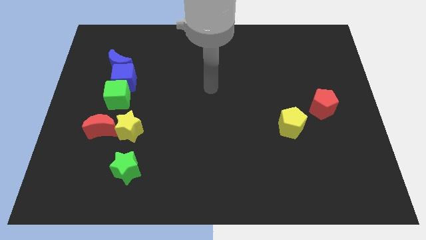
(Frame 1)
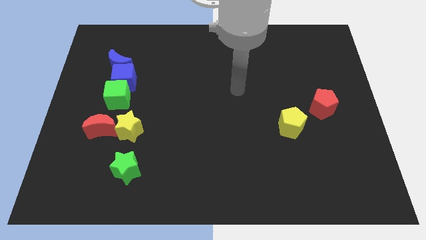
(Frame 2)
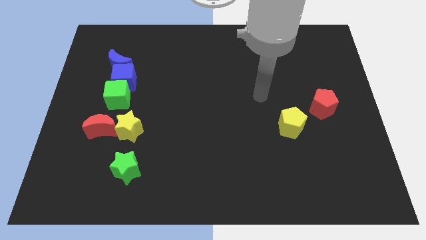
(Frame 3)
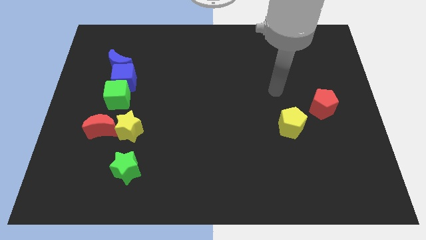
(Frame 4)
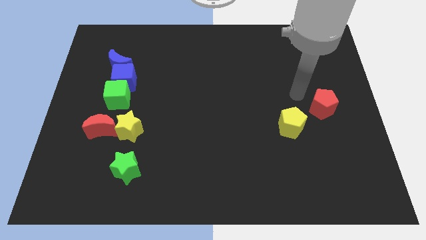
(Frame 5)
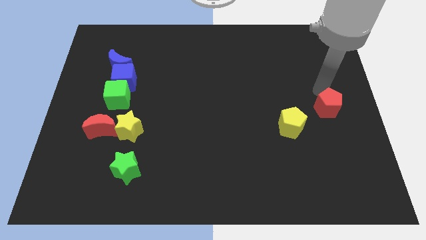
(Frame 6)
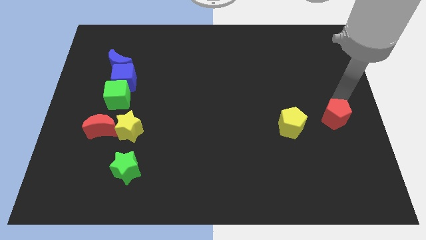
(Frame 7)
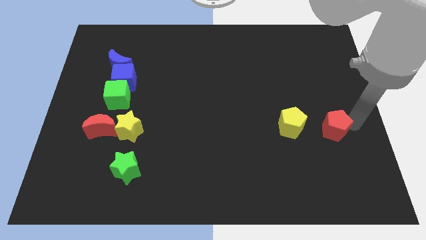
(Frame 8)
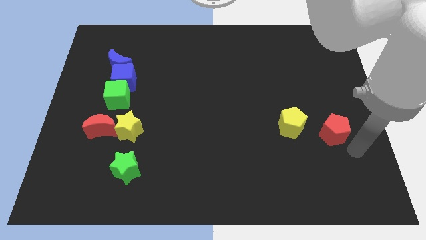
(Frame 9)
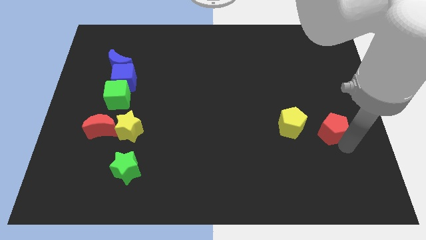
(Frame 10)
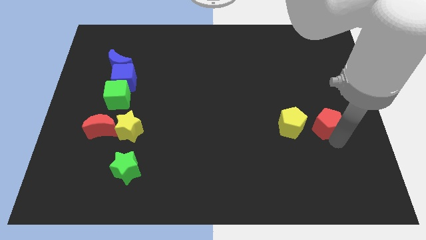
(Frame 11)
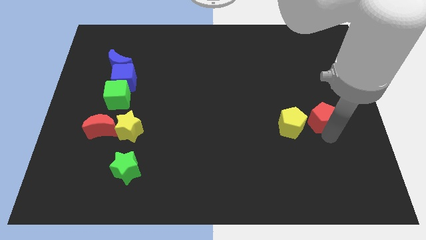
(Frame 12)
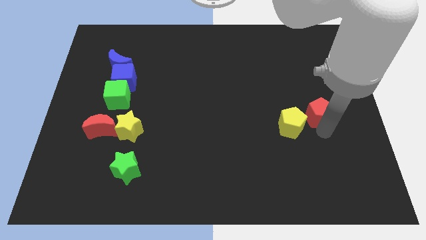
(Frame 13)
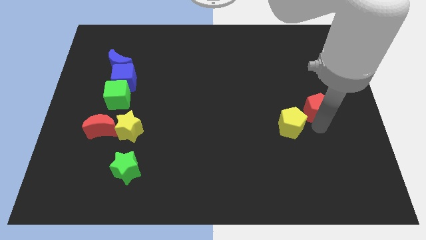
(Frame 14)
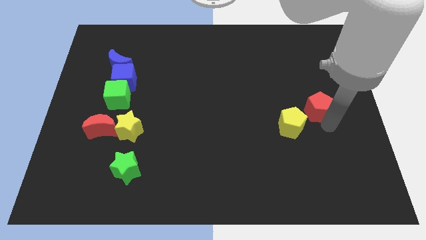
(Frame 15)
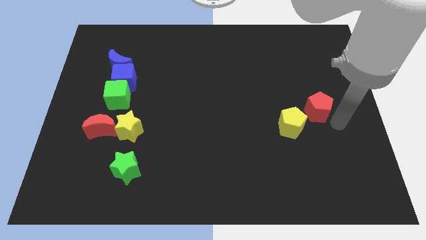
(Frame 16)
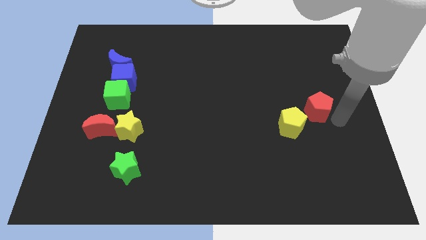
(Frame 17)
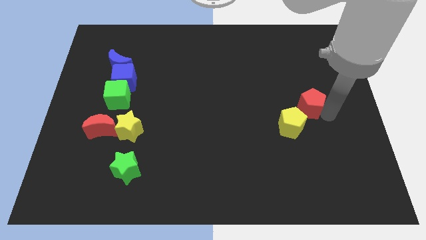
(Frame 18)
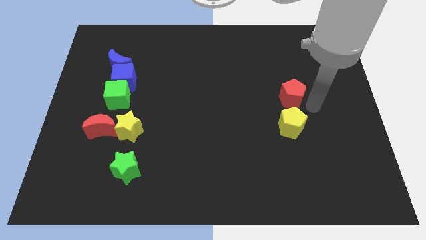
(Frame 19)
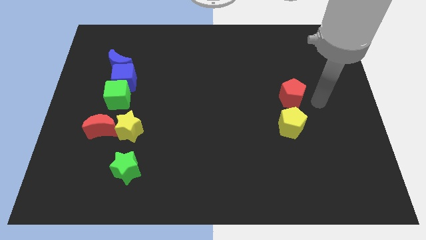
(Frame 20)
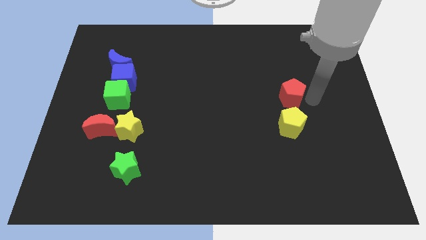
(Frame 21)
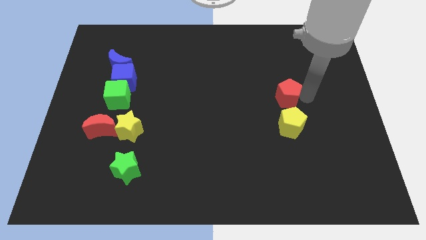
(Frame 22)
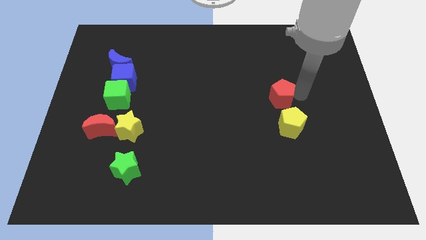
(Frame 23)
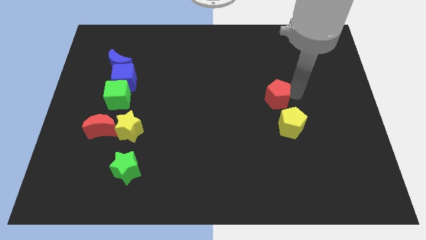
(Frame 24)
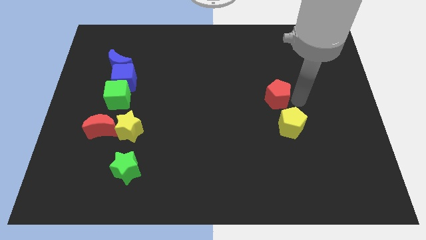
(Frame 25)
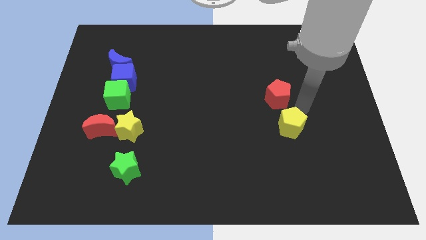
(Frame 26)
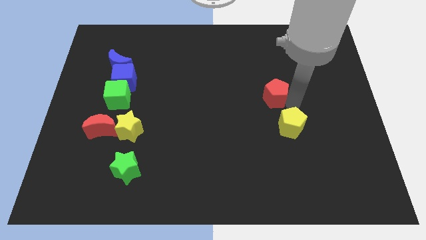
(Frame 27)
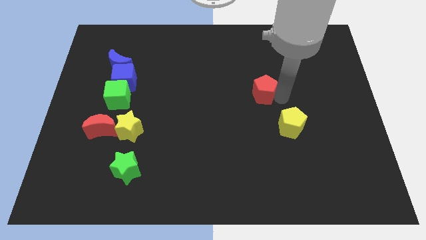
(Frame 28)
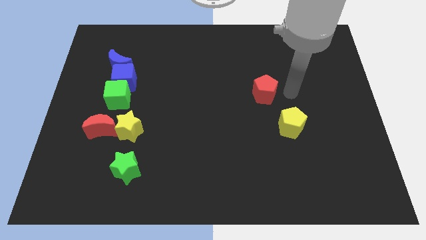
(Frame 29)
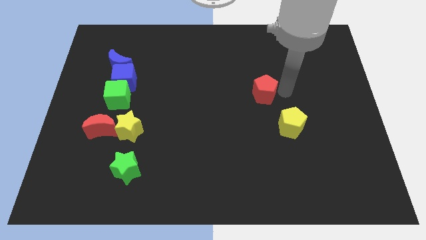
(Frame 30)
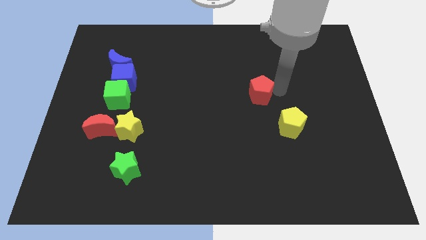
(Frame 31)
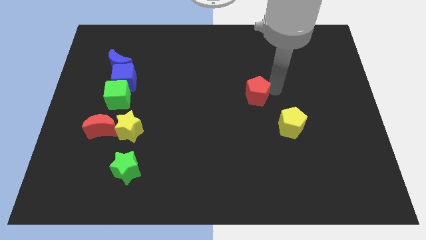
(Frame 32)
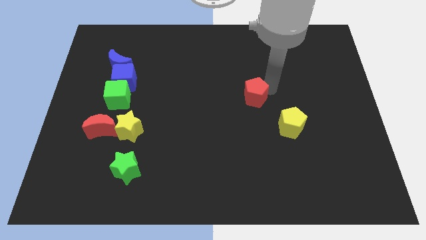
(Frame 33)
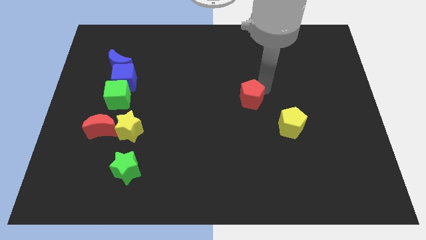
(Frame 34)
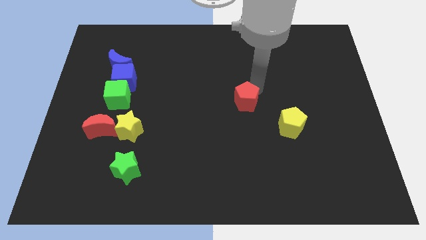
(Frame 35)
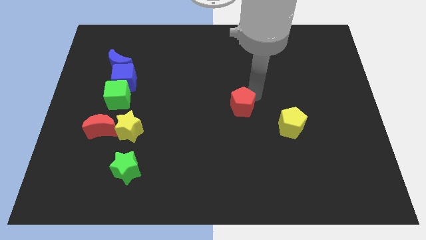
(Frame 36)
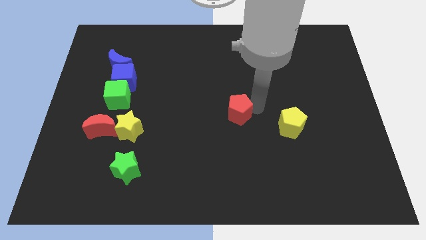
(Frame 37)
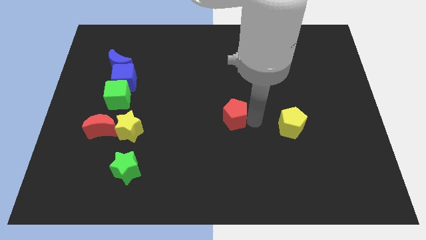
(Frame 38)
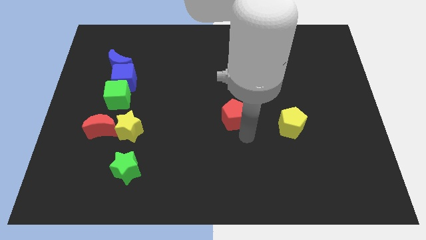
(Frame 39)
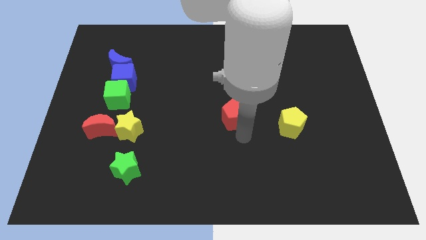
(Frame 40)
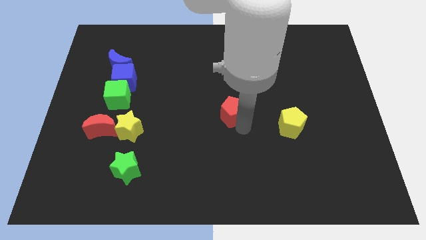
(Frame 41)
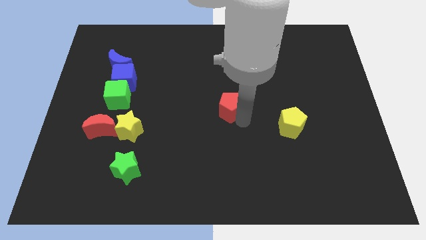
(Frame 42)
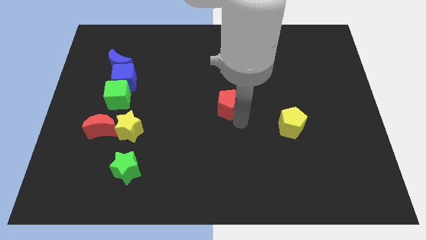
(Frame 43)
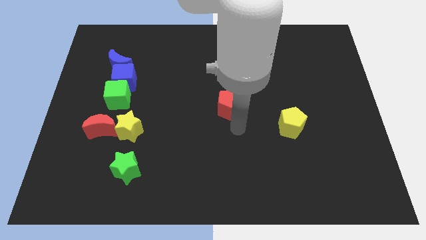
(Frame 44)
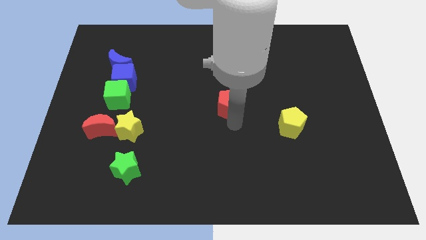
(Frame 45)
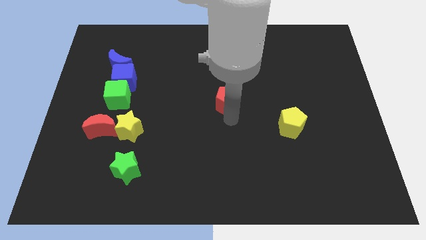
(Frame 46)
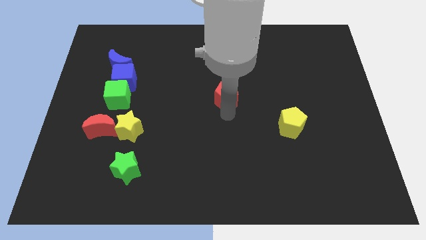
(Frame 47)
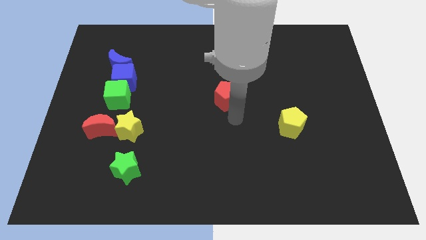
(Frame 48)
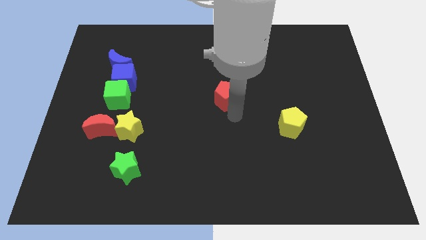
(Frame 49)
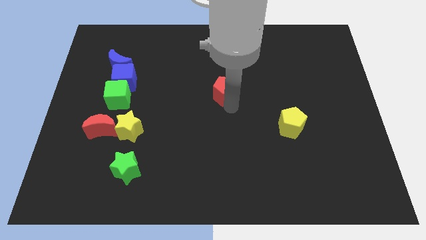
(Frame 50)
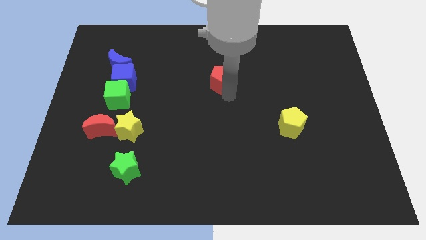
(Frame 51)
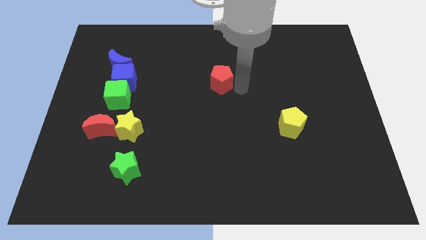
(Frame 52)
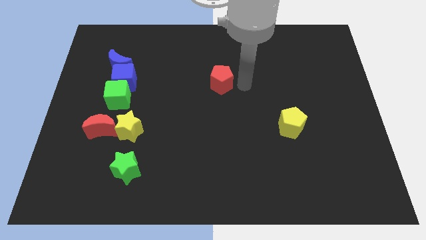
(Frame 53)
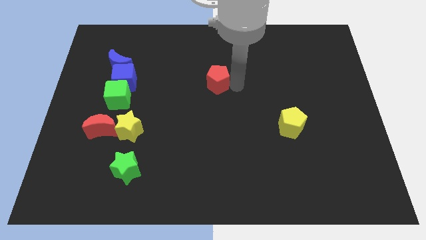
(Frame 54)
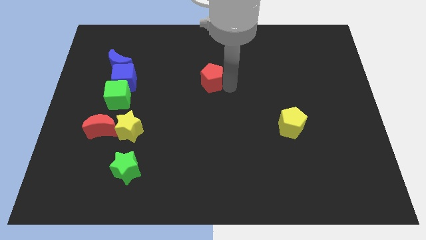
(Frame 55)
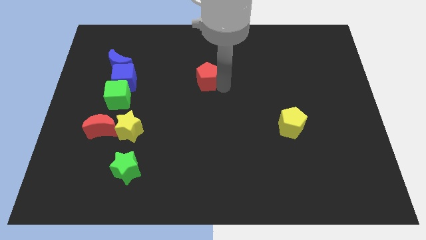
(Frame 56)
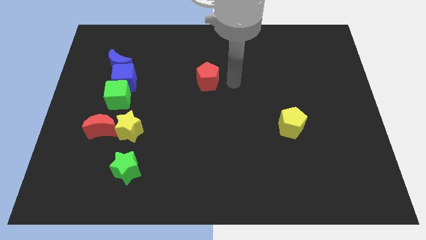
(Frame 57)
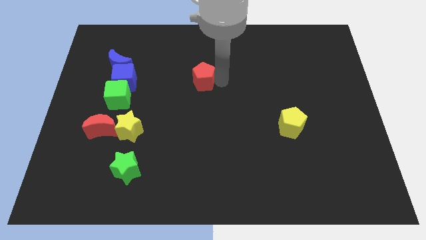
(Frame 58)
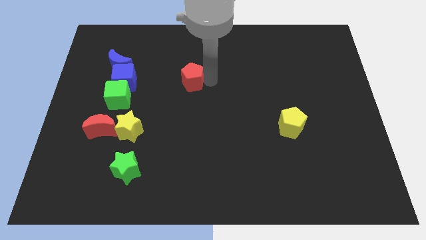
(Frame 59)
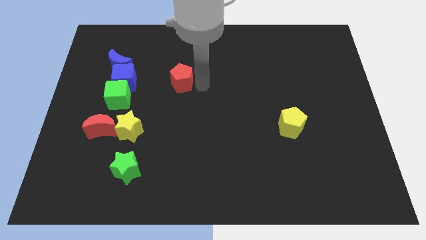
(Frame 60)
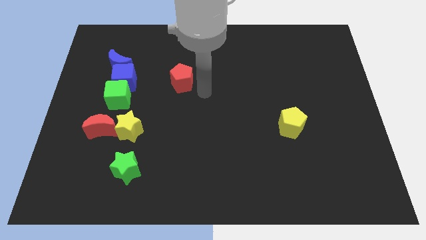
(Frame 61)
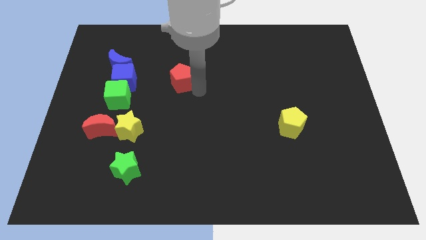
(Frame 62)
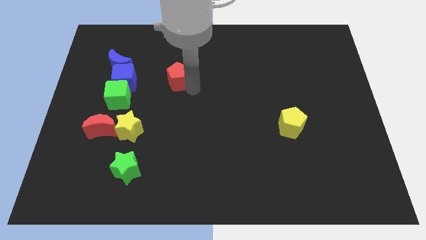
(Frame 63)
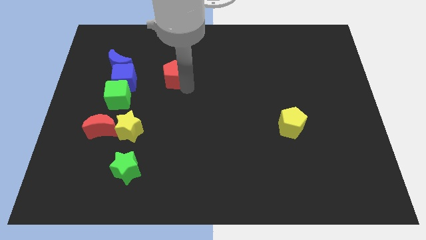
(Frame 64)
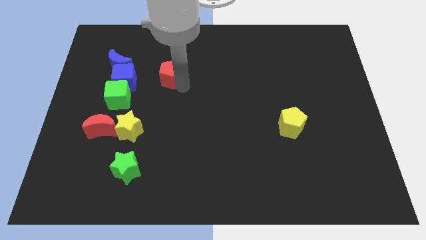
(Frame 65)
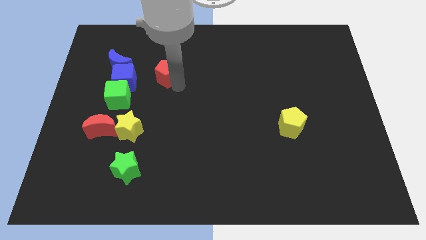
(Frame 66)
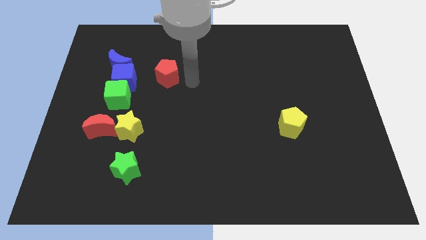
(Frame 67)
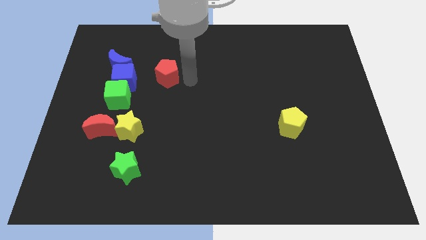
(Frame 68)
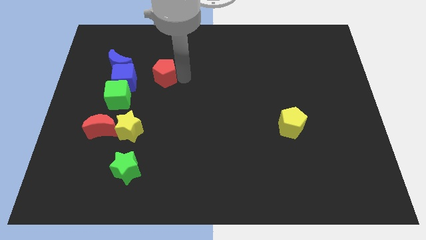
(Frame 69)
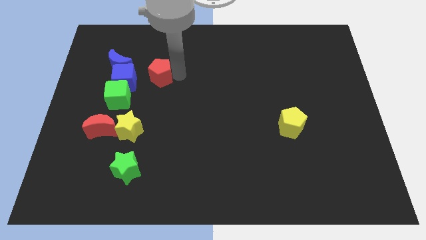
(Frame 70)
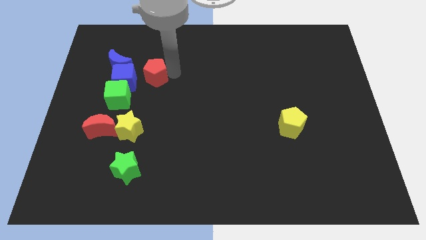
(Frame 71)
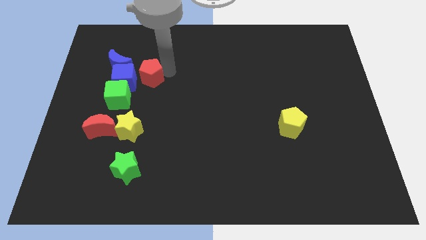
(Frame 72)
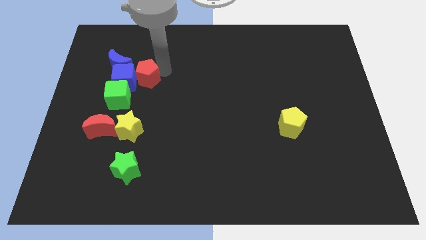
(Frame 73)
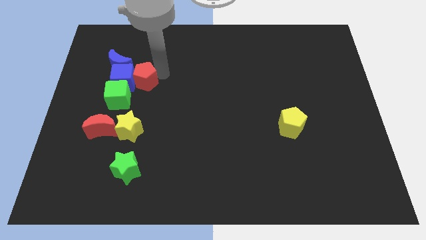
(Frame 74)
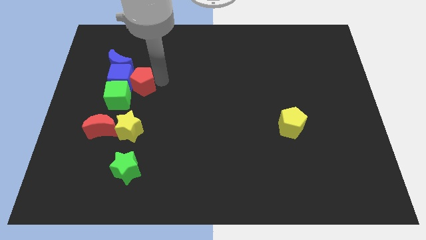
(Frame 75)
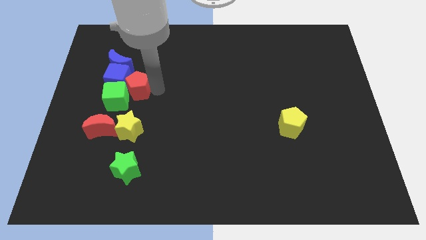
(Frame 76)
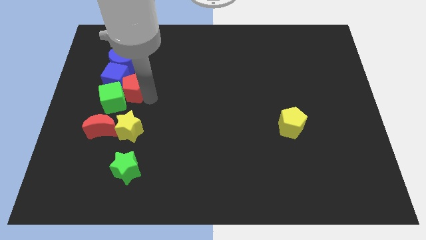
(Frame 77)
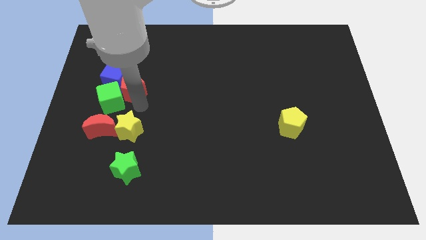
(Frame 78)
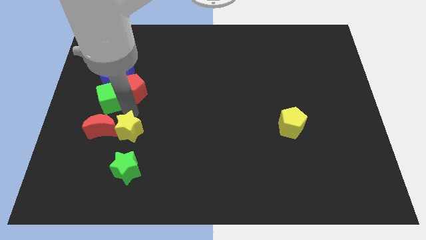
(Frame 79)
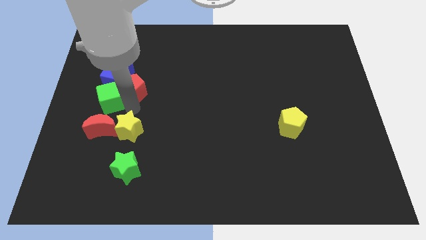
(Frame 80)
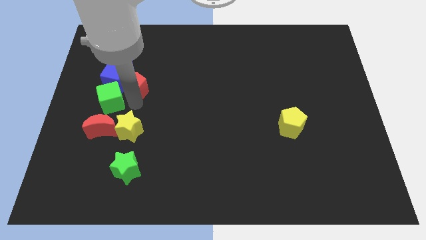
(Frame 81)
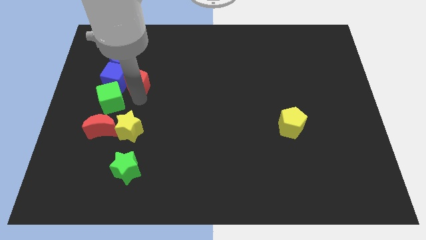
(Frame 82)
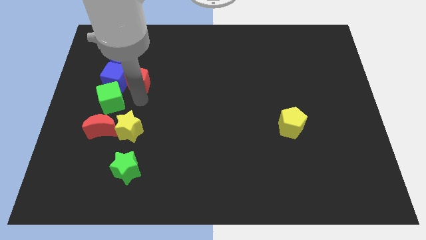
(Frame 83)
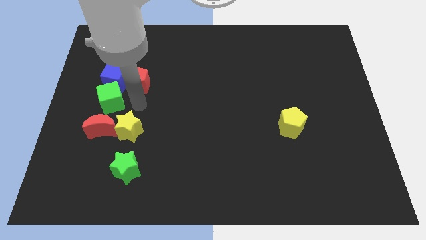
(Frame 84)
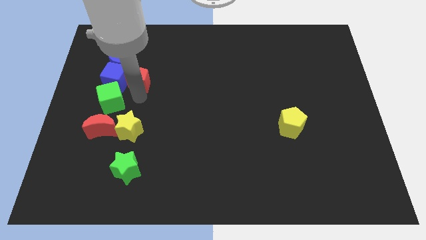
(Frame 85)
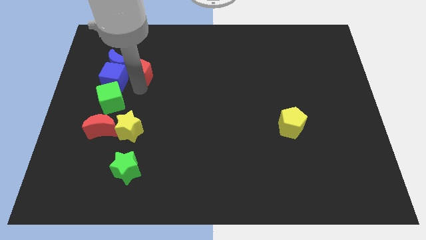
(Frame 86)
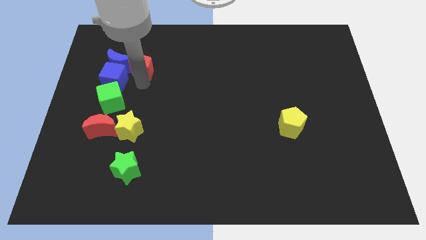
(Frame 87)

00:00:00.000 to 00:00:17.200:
move the red pentagon next to the blue moon
